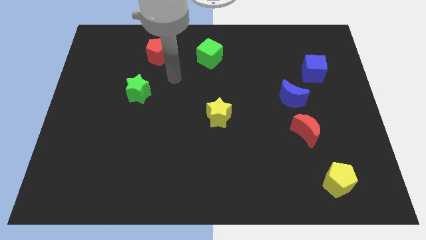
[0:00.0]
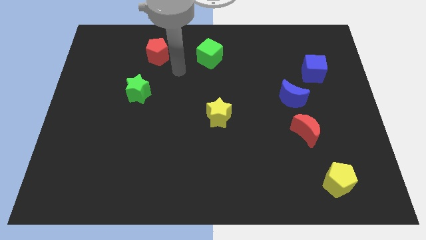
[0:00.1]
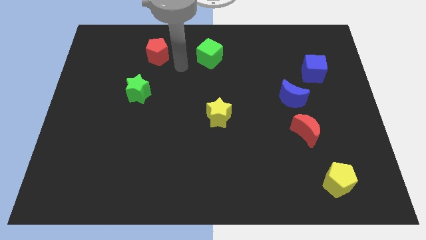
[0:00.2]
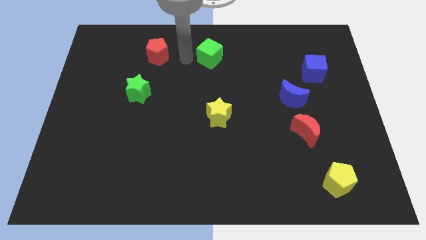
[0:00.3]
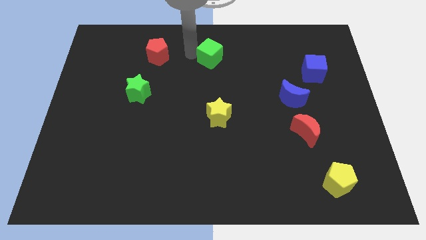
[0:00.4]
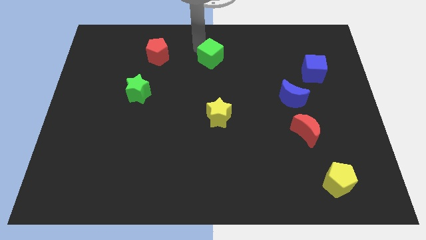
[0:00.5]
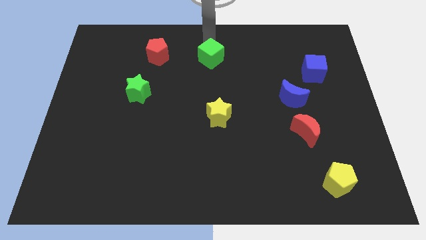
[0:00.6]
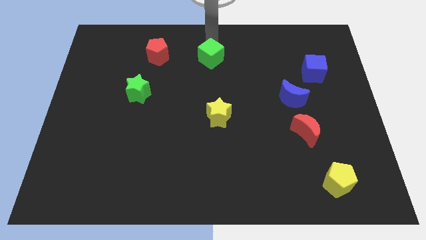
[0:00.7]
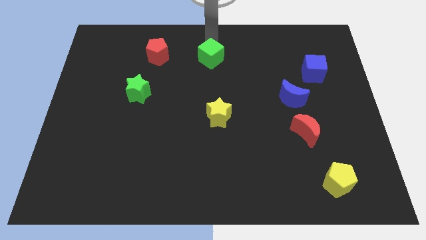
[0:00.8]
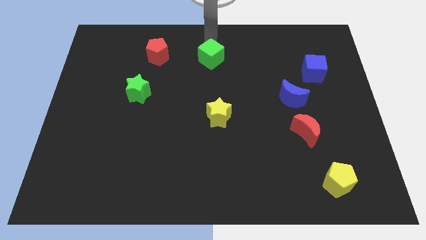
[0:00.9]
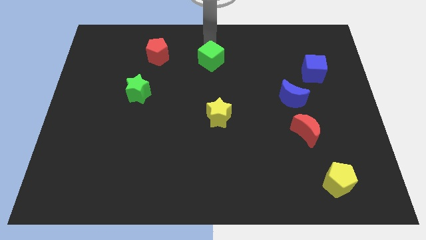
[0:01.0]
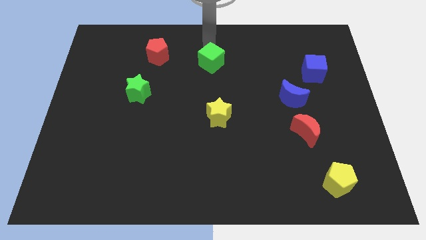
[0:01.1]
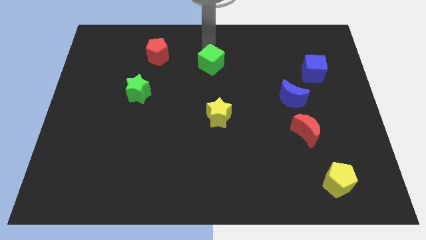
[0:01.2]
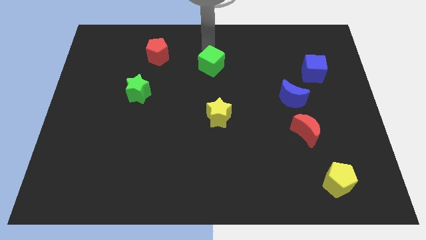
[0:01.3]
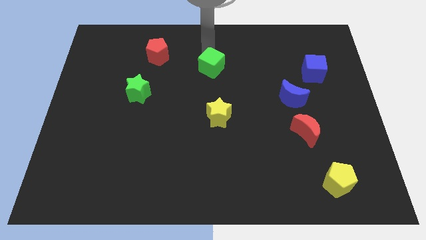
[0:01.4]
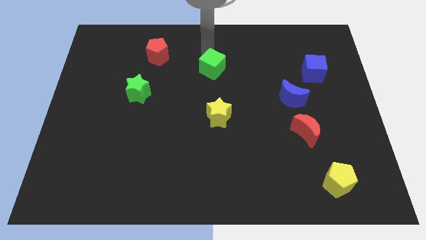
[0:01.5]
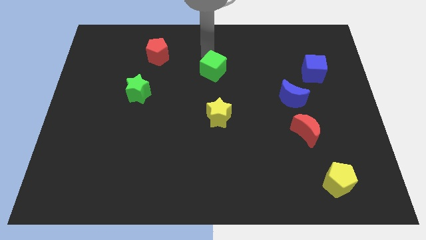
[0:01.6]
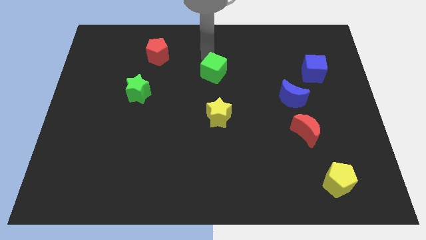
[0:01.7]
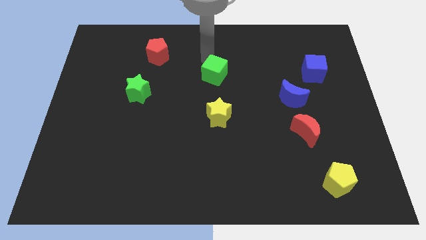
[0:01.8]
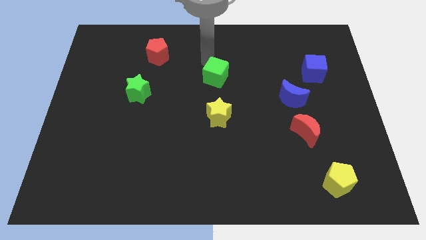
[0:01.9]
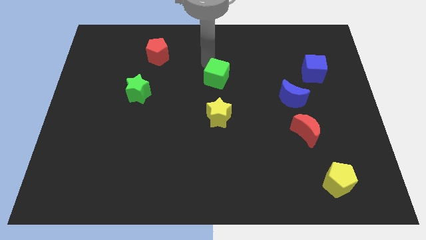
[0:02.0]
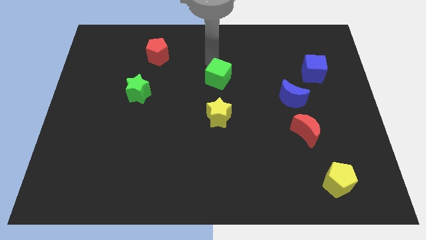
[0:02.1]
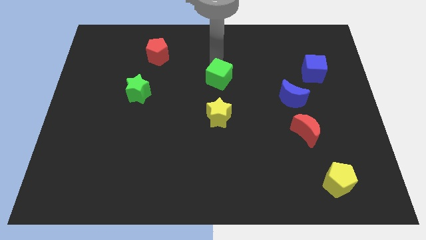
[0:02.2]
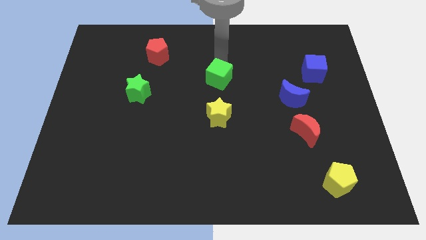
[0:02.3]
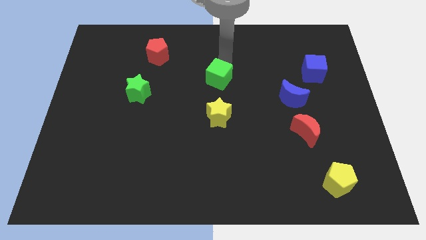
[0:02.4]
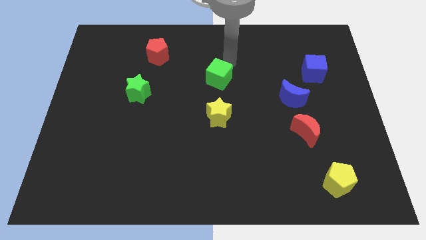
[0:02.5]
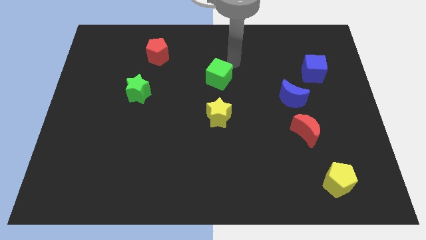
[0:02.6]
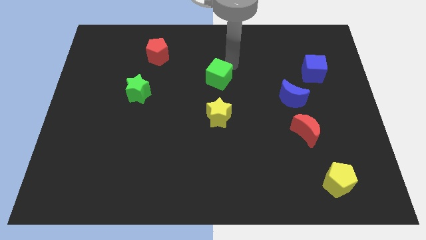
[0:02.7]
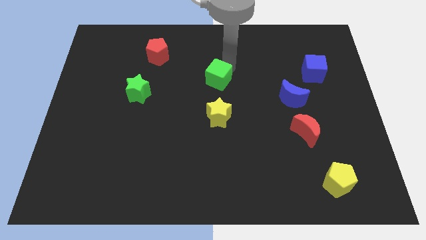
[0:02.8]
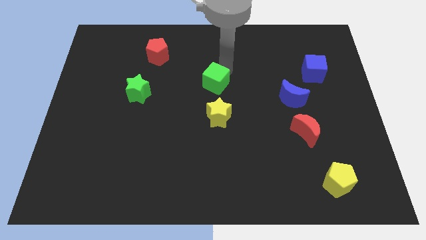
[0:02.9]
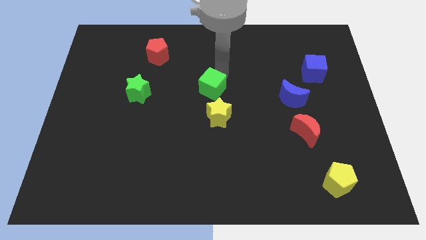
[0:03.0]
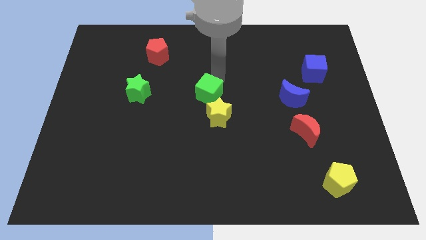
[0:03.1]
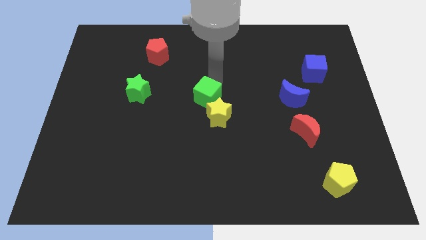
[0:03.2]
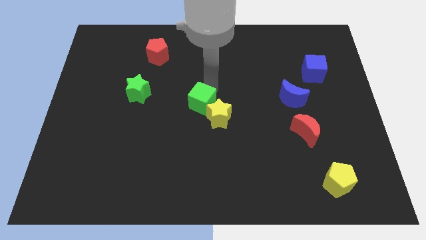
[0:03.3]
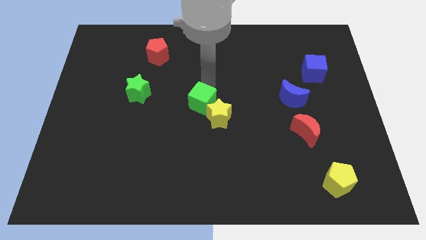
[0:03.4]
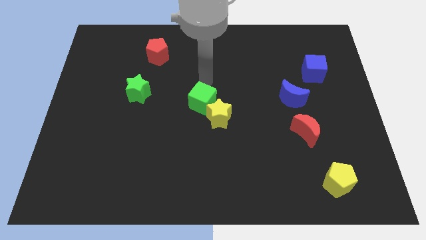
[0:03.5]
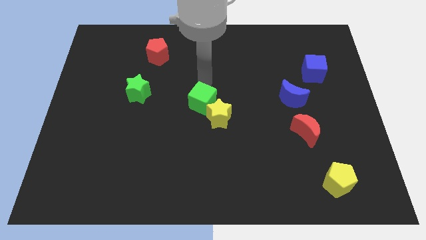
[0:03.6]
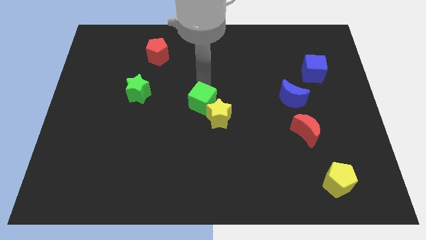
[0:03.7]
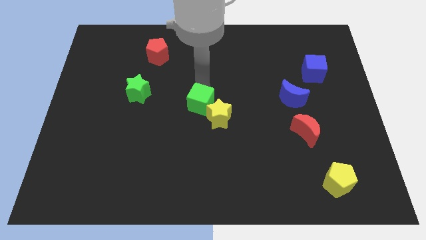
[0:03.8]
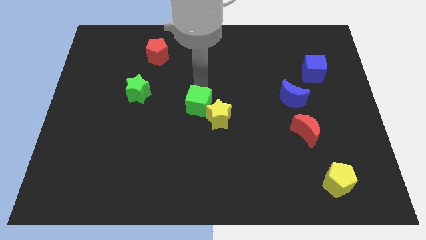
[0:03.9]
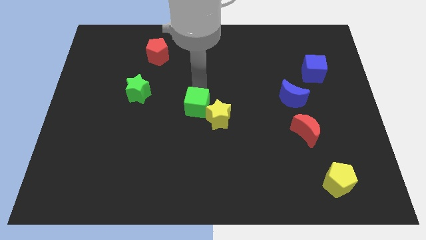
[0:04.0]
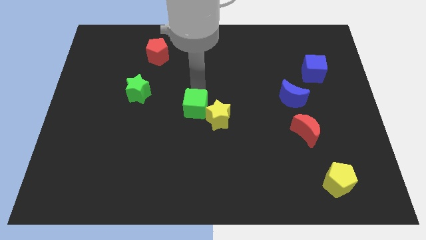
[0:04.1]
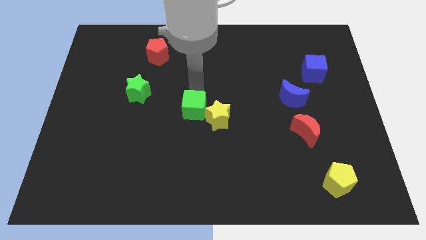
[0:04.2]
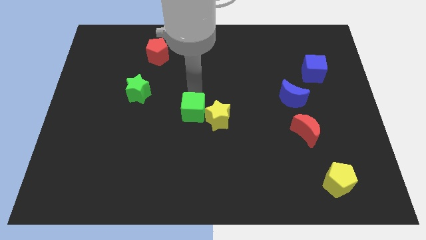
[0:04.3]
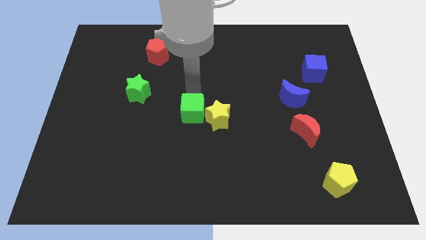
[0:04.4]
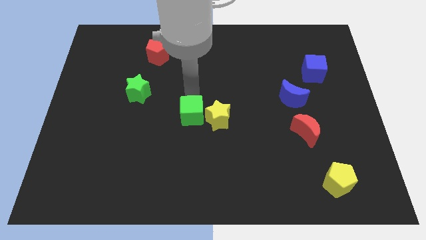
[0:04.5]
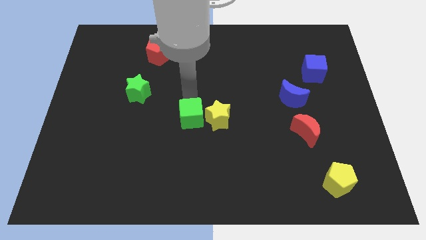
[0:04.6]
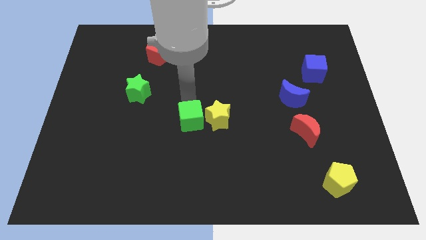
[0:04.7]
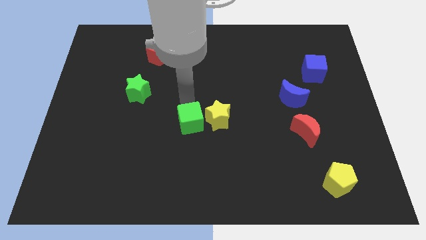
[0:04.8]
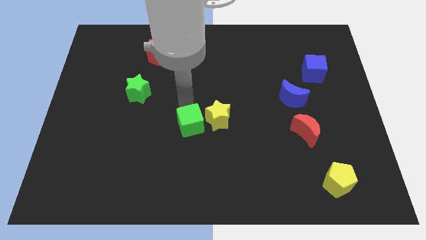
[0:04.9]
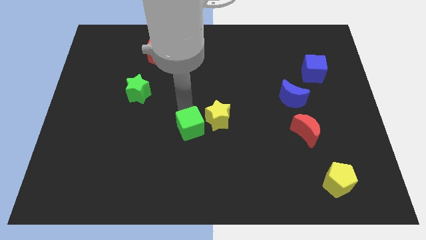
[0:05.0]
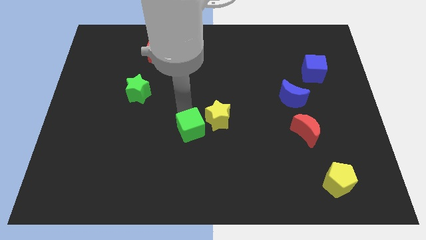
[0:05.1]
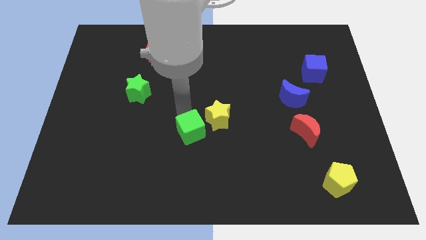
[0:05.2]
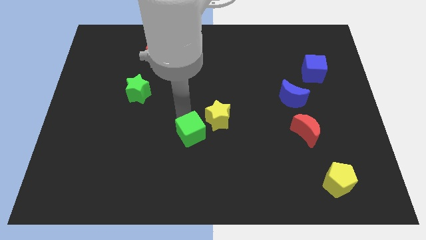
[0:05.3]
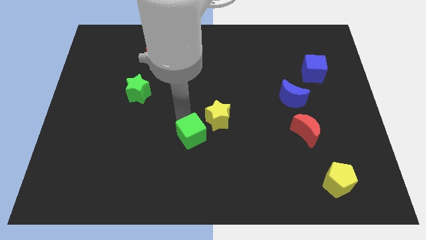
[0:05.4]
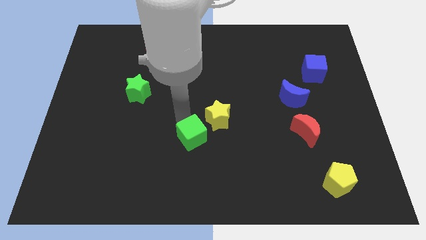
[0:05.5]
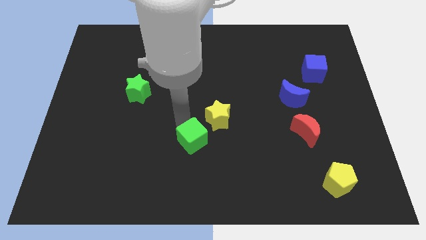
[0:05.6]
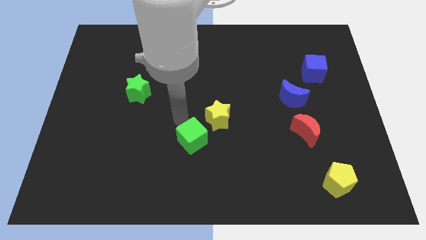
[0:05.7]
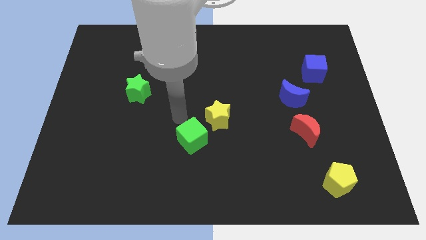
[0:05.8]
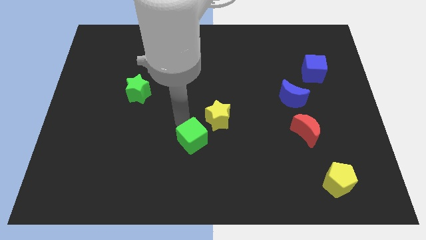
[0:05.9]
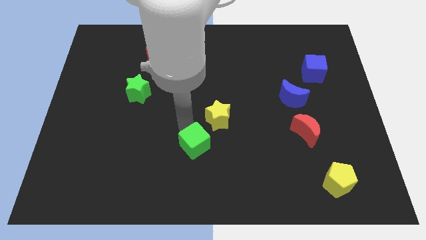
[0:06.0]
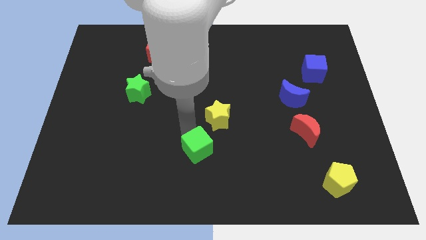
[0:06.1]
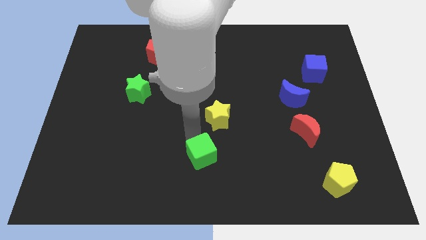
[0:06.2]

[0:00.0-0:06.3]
slide the green cube to the bottom side

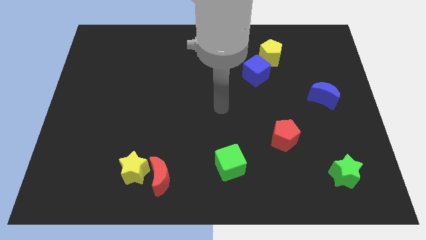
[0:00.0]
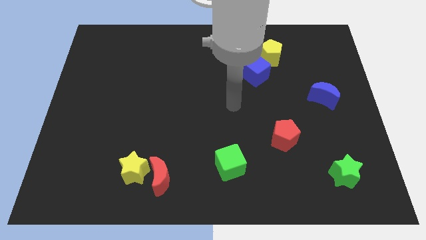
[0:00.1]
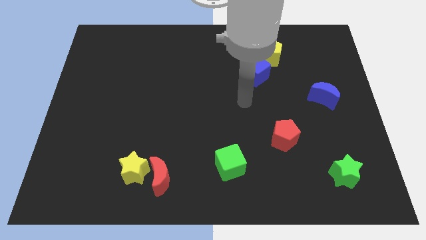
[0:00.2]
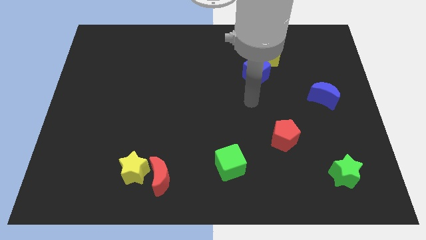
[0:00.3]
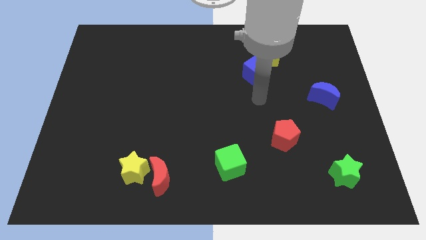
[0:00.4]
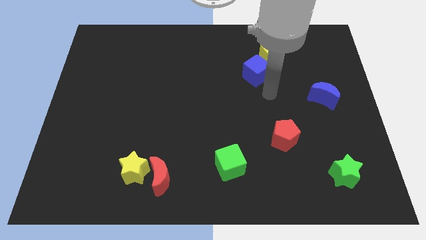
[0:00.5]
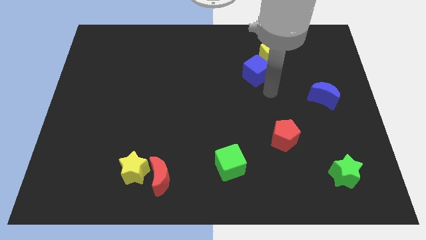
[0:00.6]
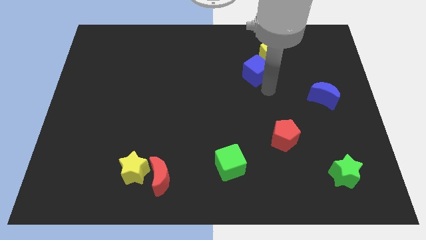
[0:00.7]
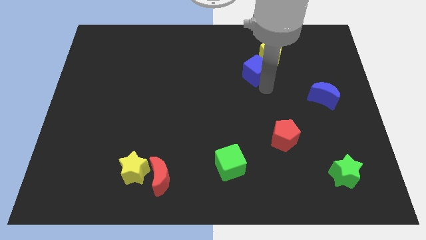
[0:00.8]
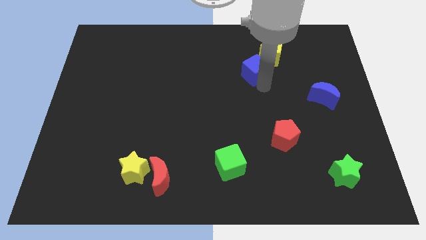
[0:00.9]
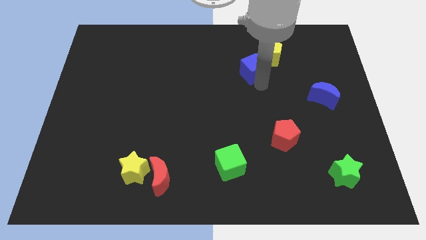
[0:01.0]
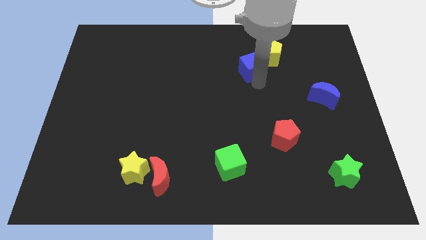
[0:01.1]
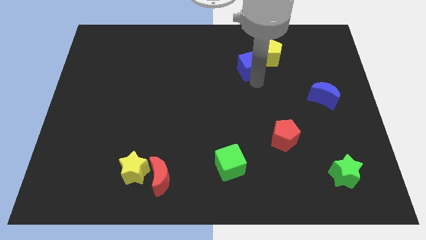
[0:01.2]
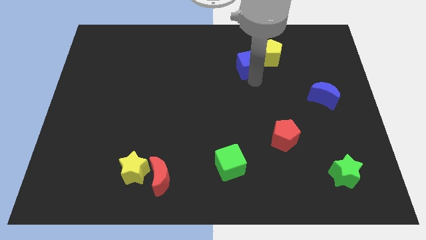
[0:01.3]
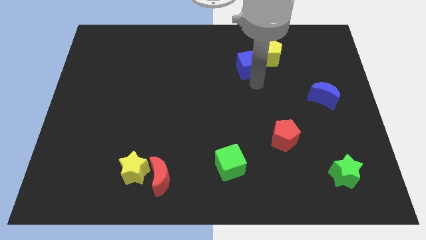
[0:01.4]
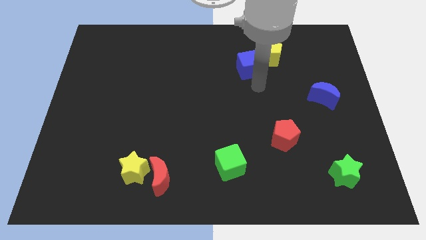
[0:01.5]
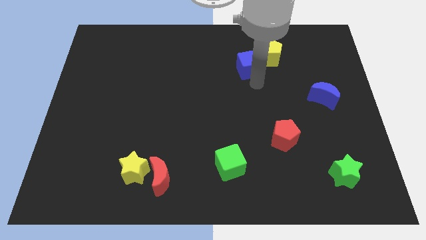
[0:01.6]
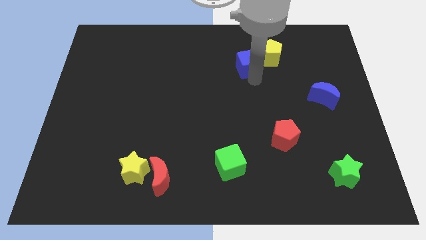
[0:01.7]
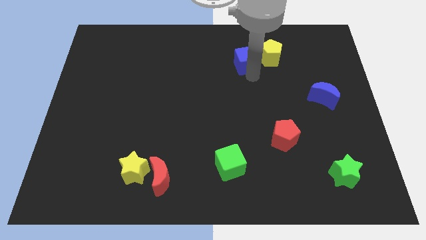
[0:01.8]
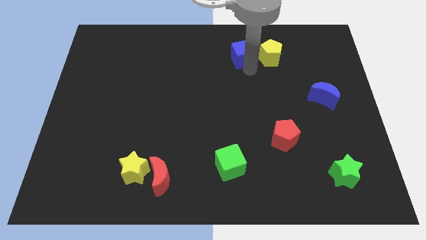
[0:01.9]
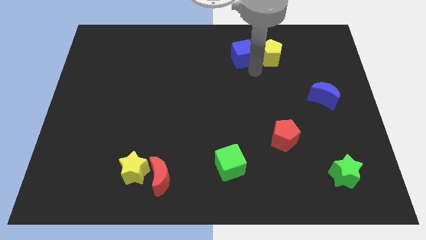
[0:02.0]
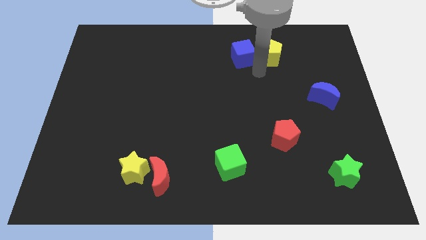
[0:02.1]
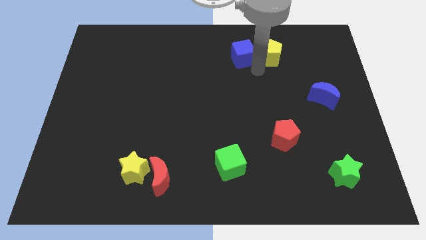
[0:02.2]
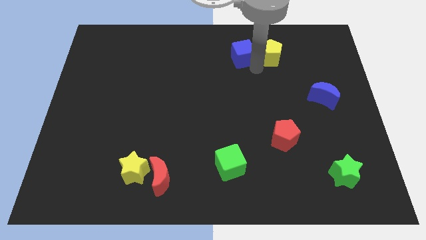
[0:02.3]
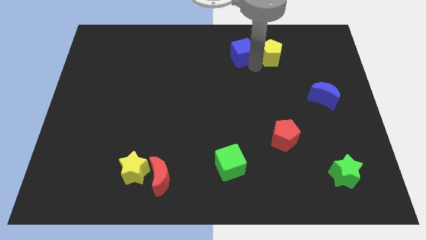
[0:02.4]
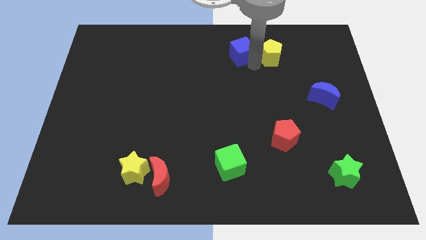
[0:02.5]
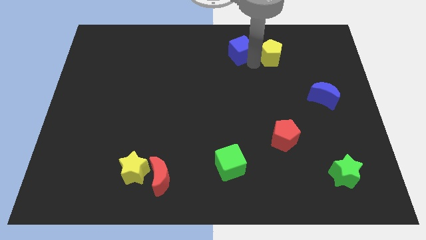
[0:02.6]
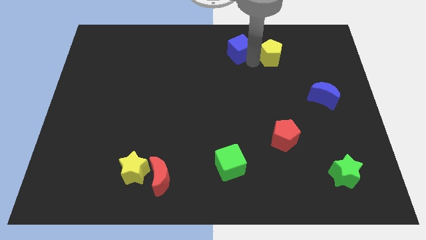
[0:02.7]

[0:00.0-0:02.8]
push the blue cube to the top
